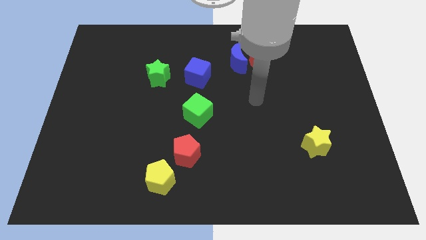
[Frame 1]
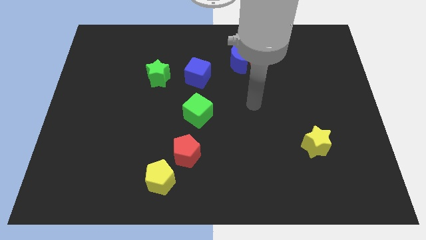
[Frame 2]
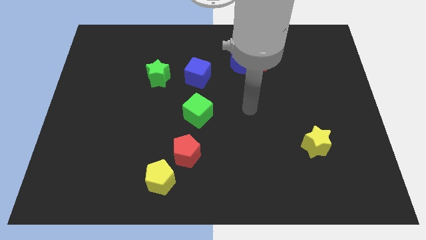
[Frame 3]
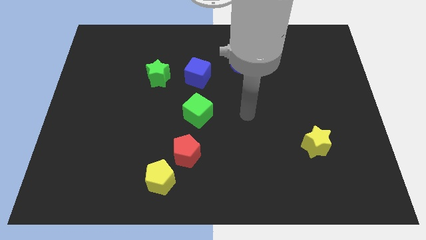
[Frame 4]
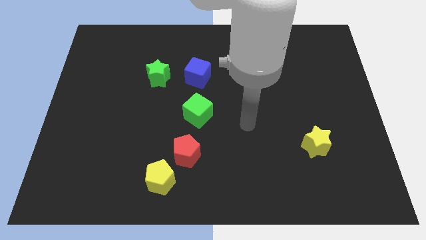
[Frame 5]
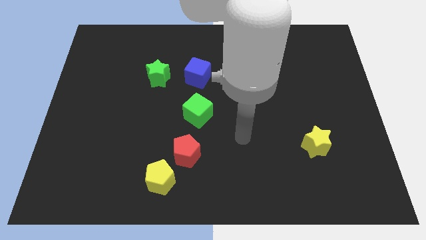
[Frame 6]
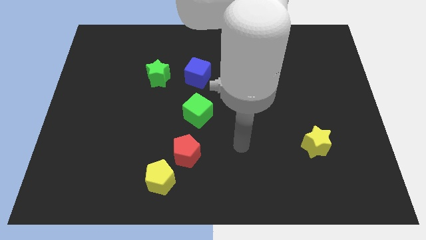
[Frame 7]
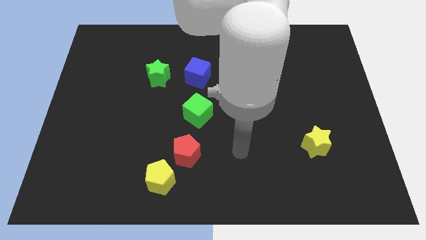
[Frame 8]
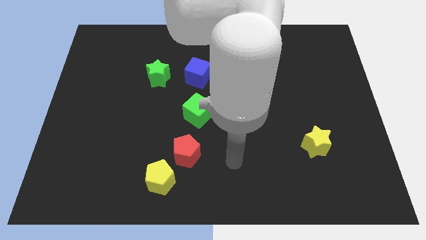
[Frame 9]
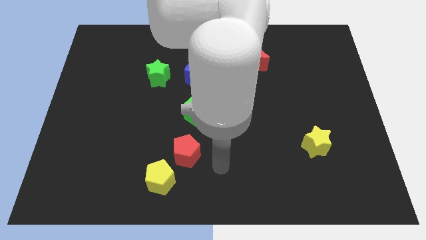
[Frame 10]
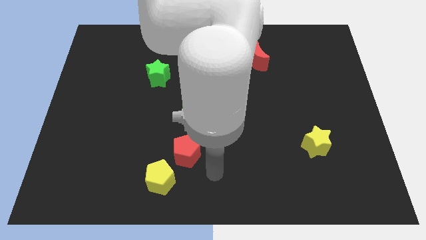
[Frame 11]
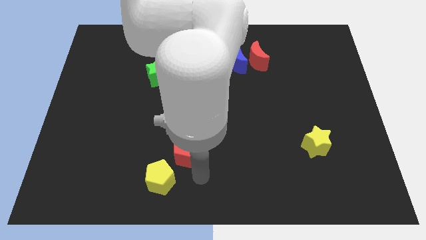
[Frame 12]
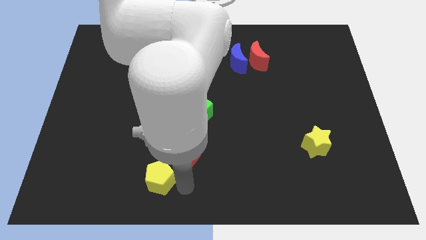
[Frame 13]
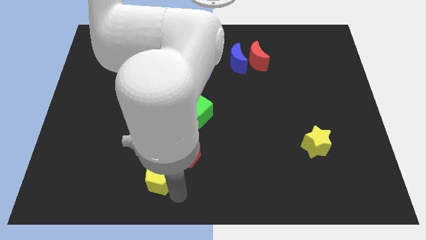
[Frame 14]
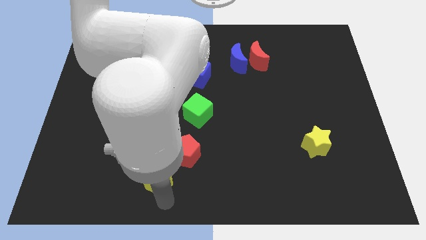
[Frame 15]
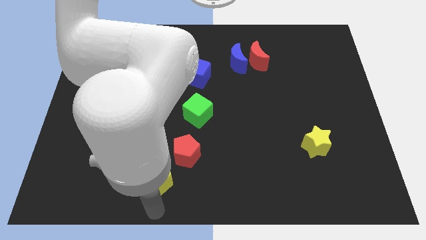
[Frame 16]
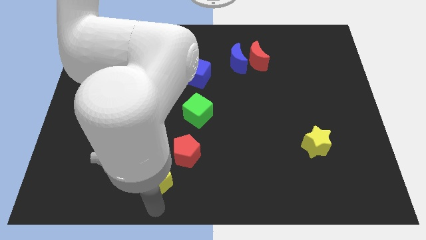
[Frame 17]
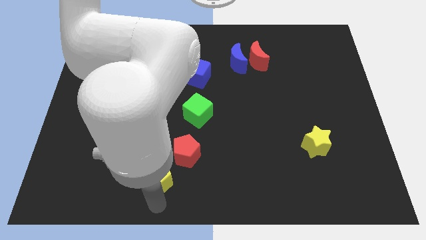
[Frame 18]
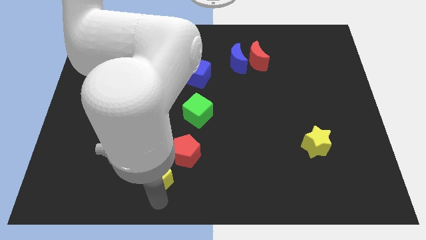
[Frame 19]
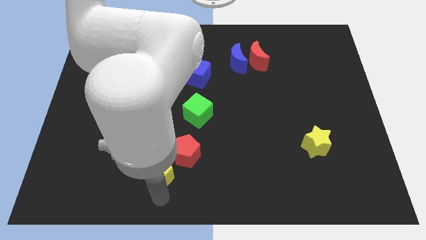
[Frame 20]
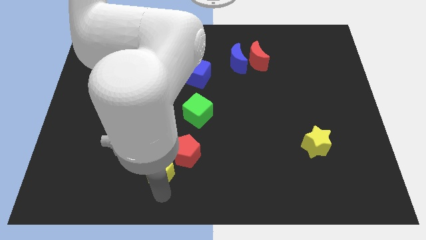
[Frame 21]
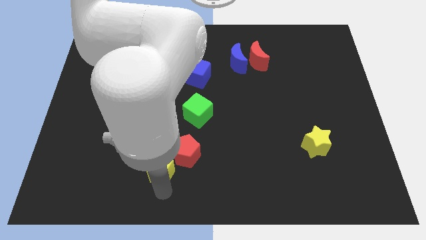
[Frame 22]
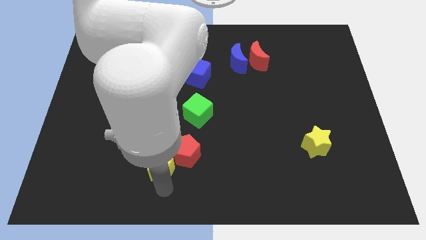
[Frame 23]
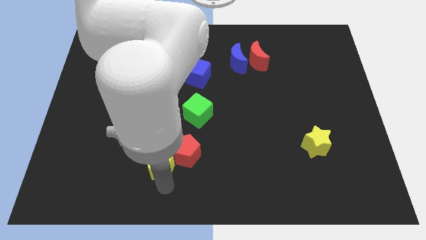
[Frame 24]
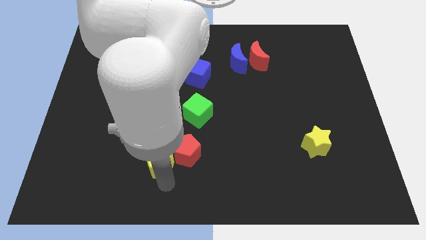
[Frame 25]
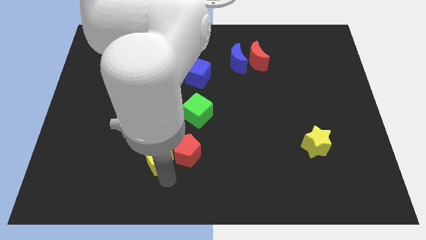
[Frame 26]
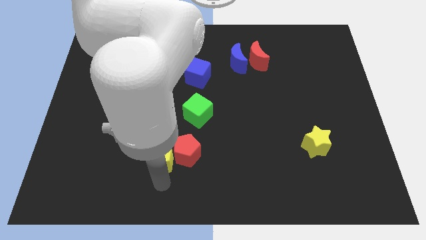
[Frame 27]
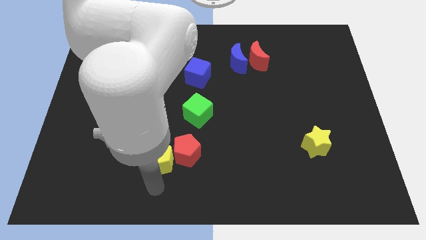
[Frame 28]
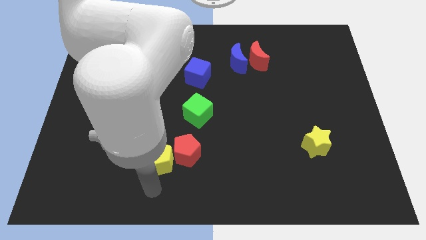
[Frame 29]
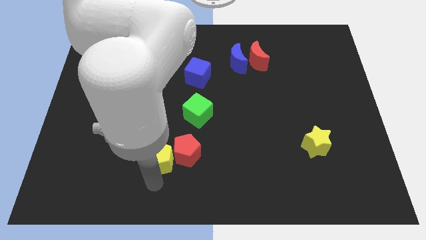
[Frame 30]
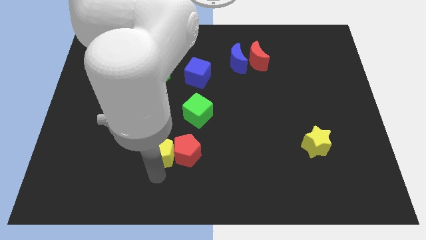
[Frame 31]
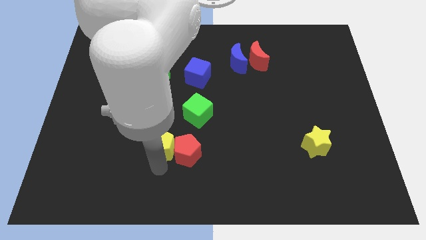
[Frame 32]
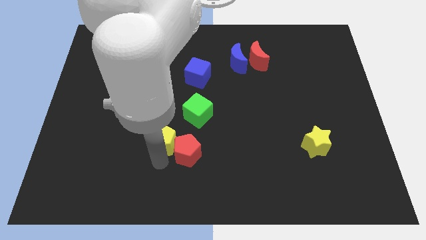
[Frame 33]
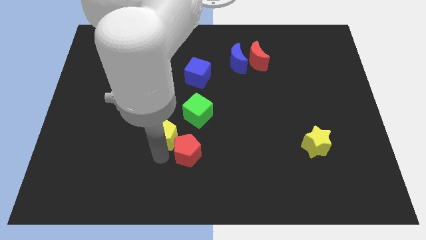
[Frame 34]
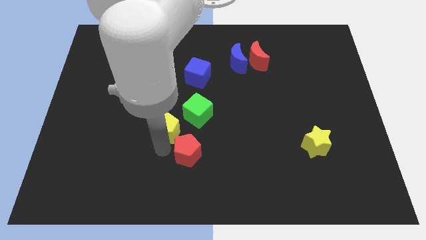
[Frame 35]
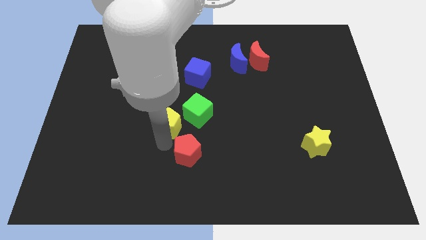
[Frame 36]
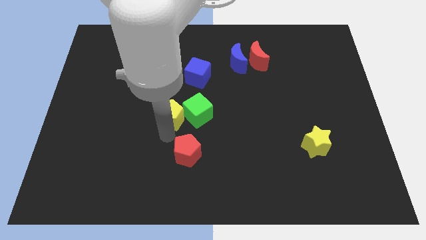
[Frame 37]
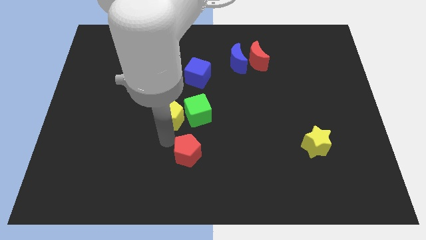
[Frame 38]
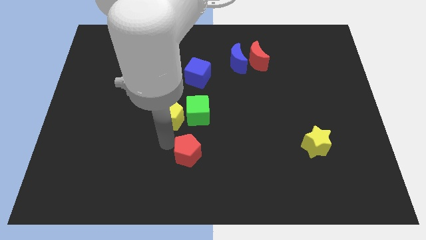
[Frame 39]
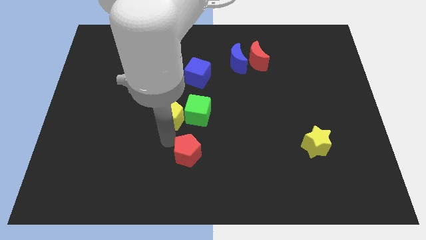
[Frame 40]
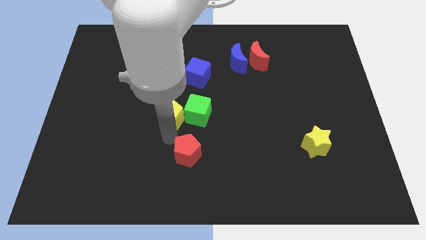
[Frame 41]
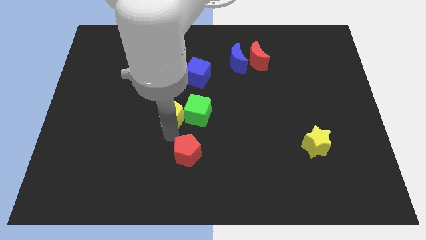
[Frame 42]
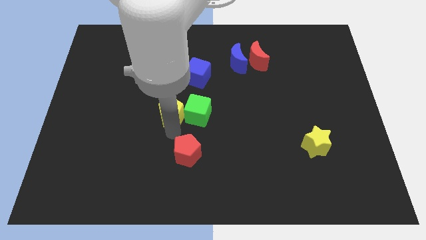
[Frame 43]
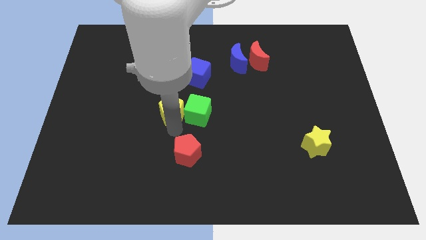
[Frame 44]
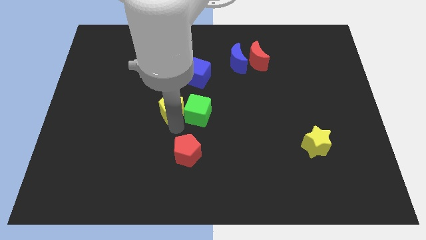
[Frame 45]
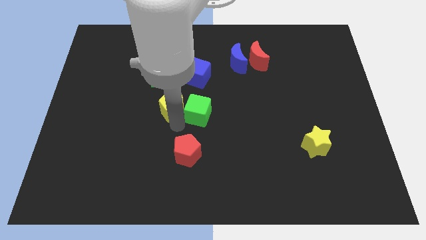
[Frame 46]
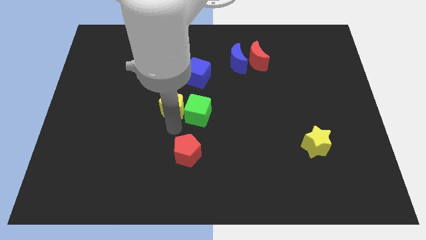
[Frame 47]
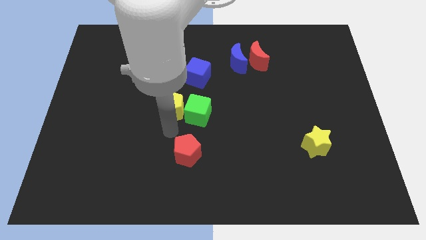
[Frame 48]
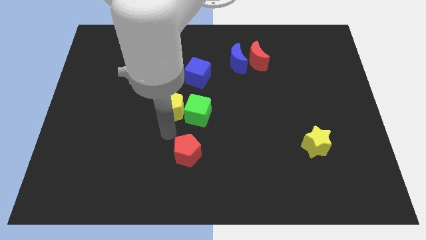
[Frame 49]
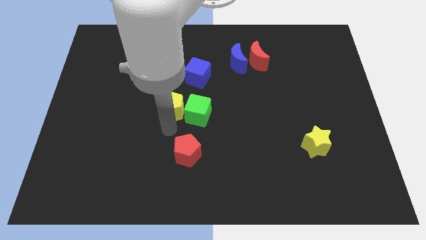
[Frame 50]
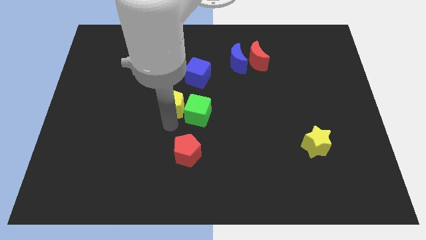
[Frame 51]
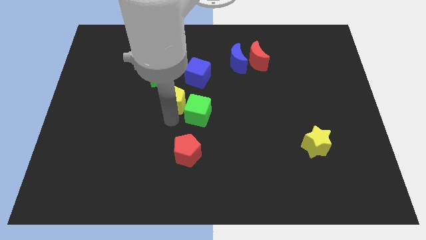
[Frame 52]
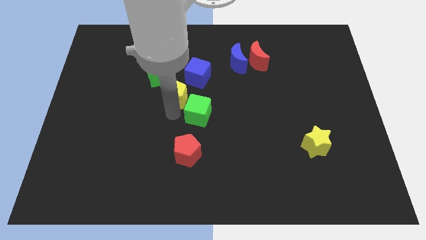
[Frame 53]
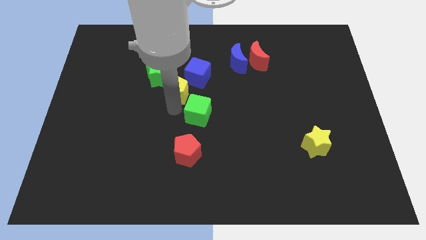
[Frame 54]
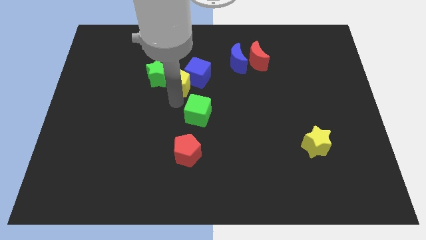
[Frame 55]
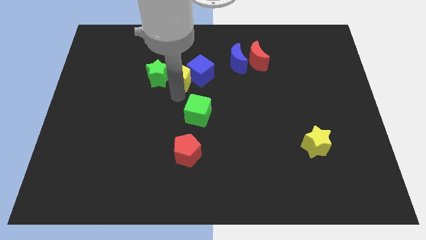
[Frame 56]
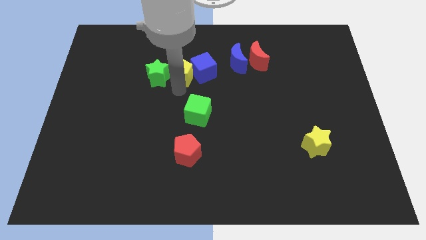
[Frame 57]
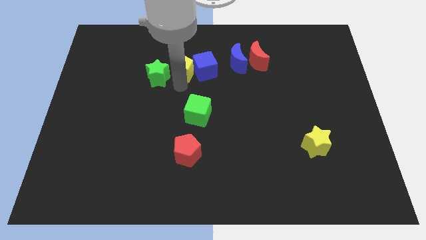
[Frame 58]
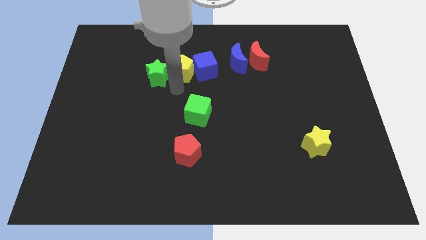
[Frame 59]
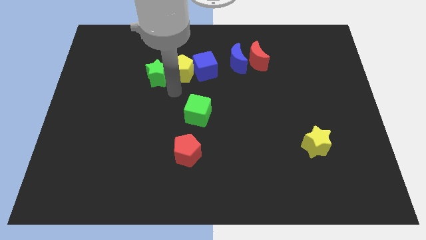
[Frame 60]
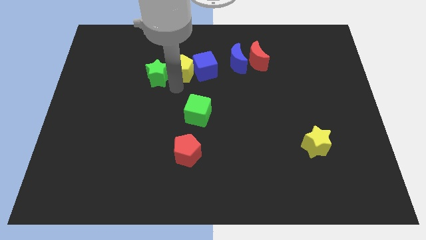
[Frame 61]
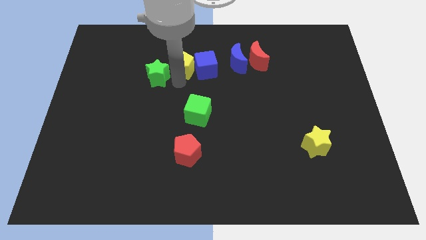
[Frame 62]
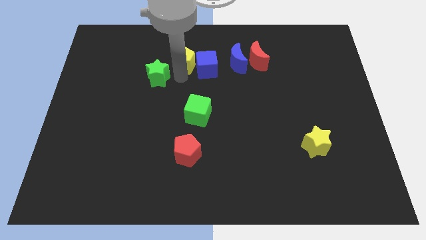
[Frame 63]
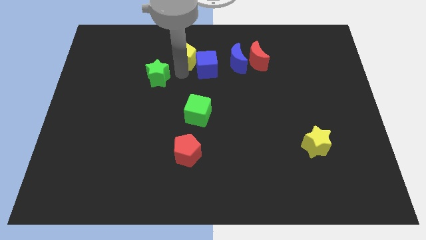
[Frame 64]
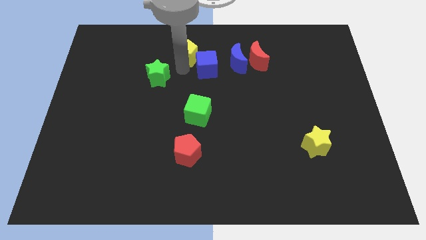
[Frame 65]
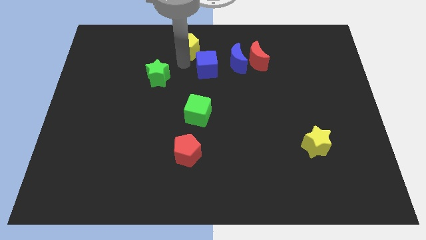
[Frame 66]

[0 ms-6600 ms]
move the yellow pentagon to the top
